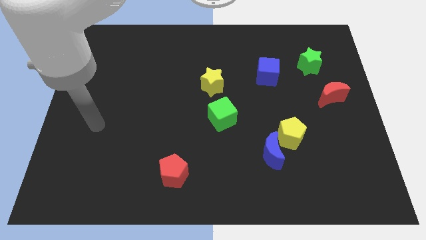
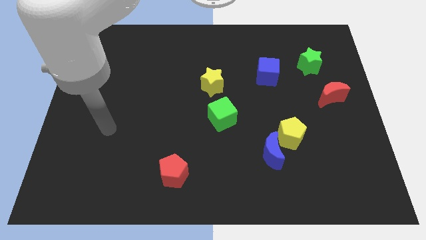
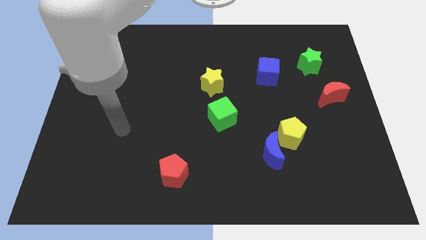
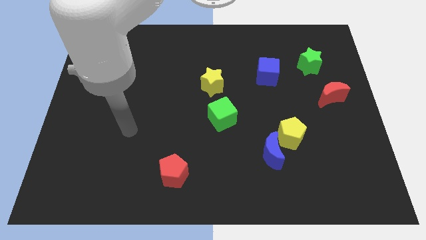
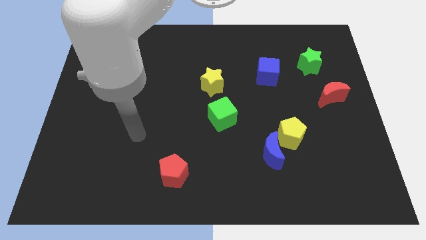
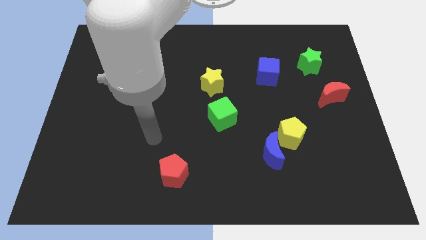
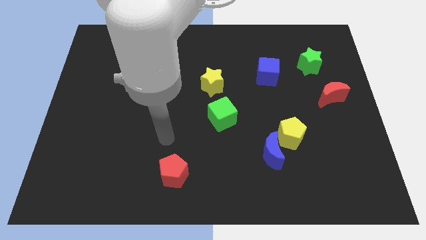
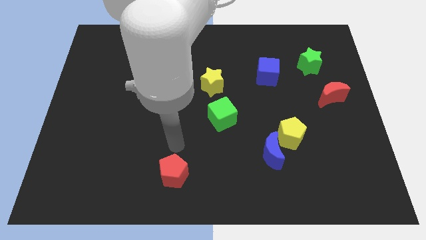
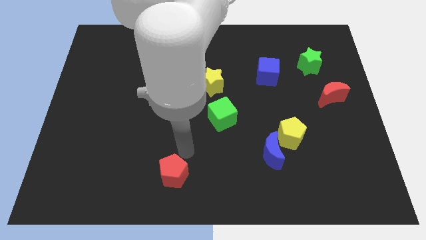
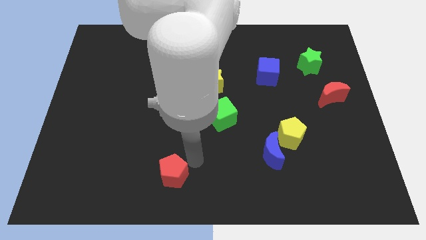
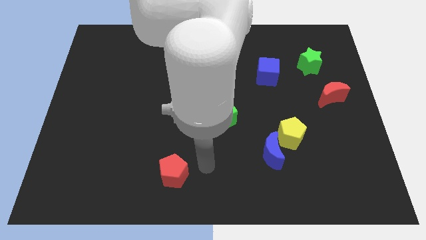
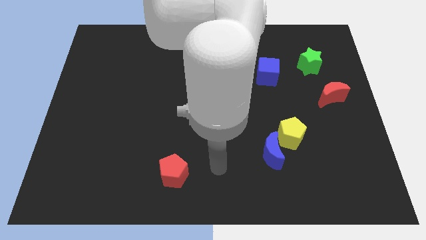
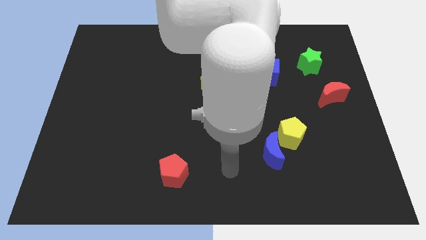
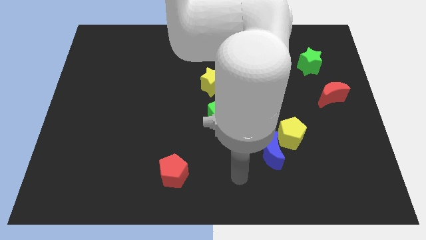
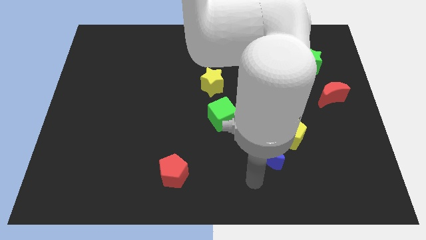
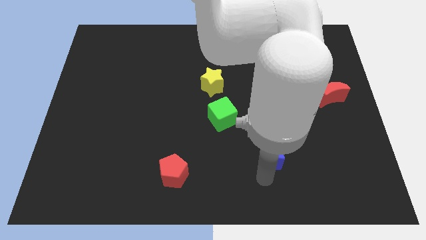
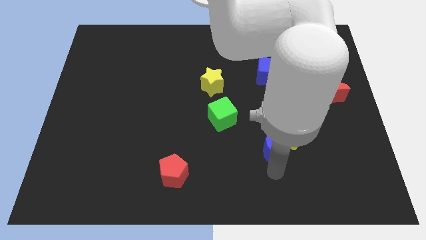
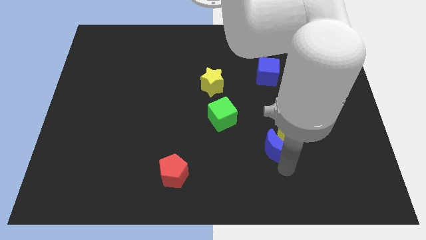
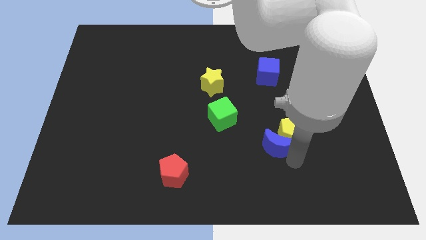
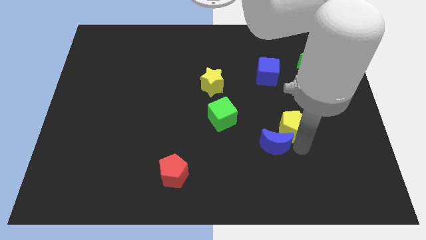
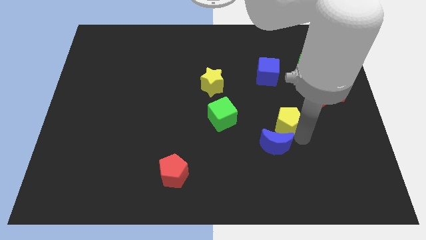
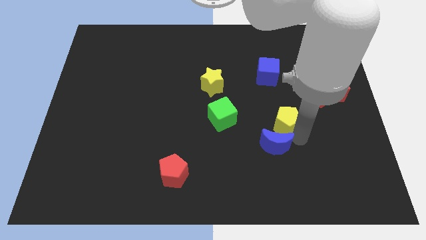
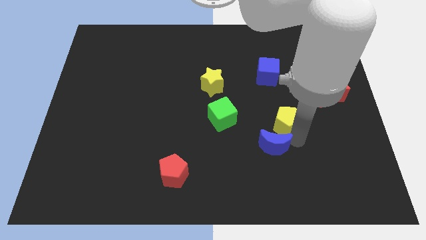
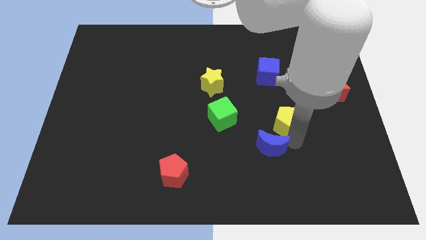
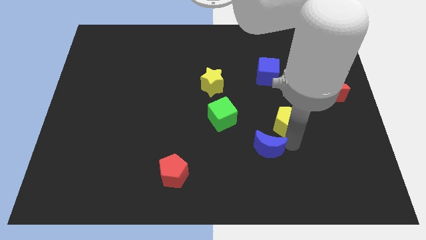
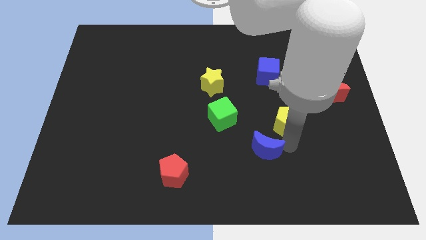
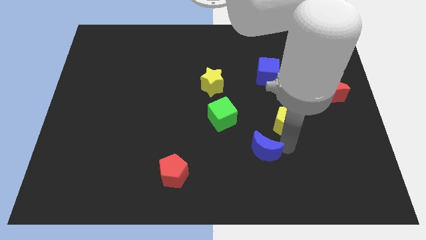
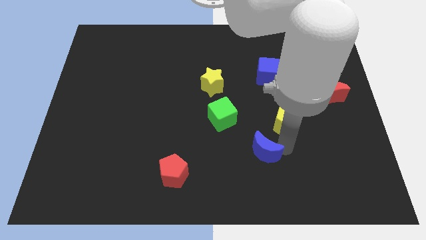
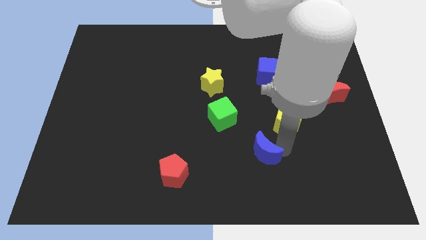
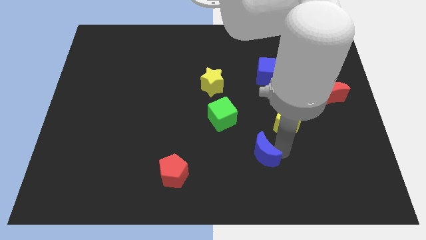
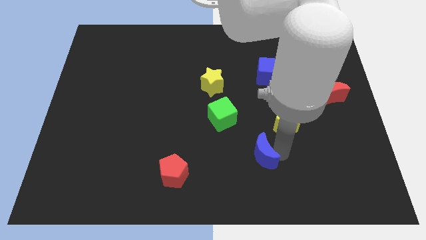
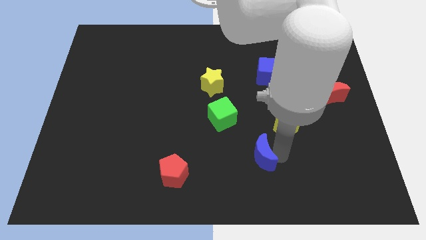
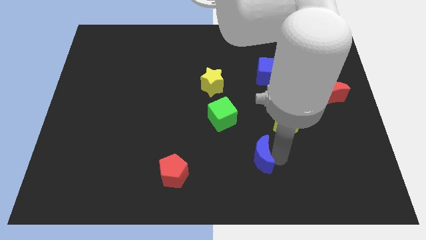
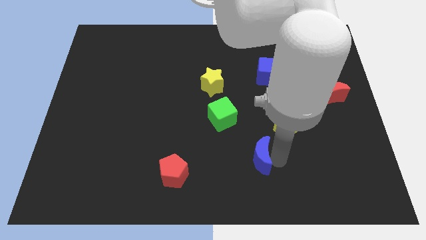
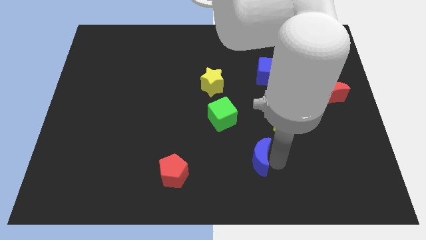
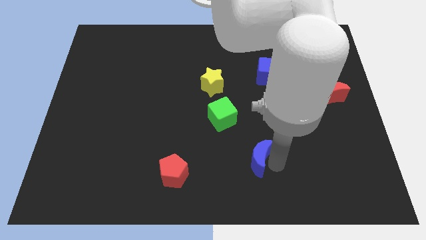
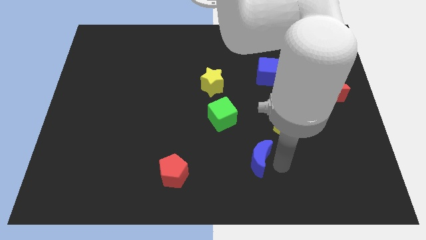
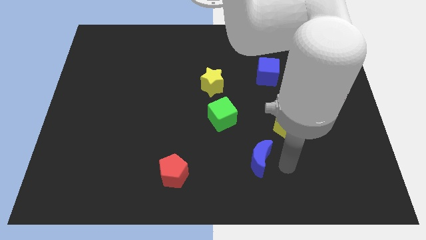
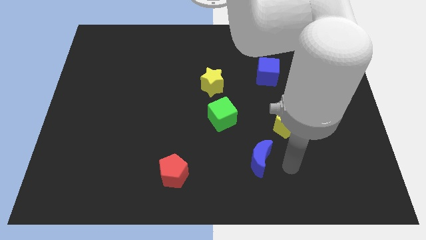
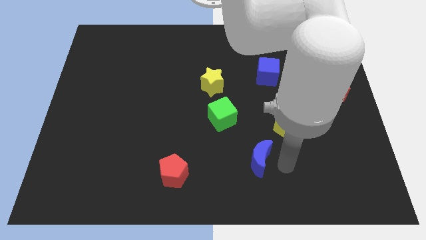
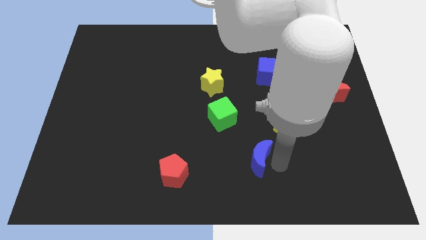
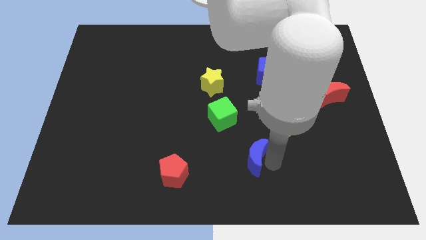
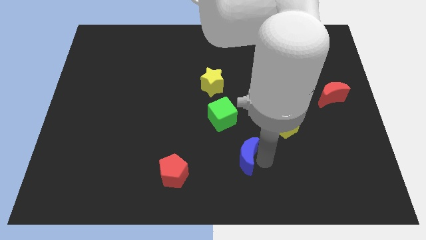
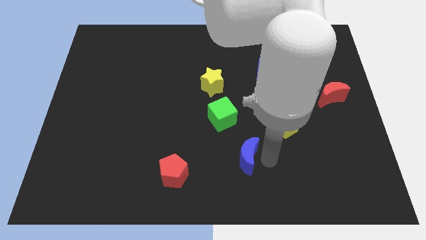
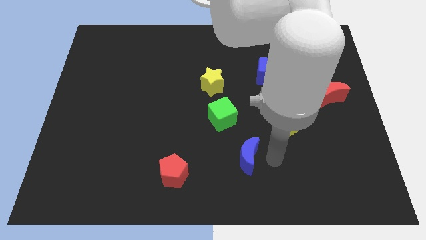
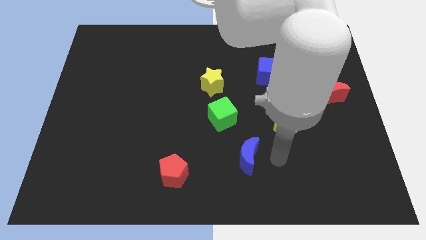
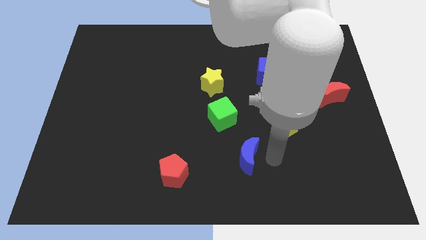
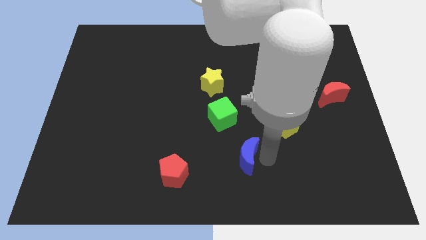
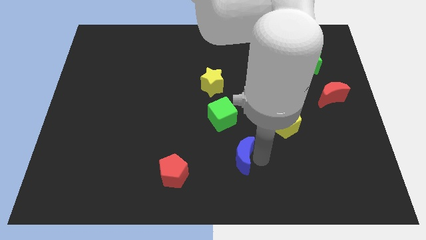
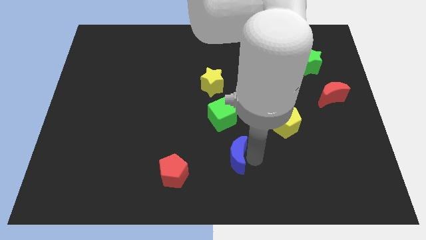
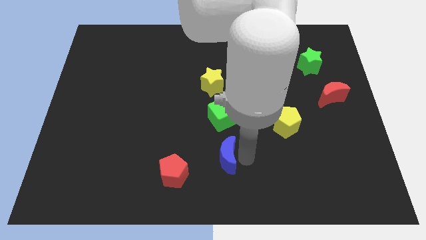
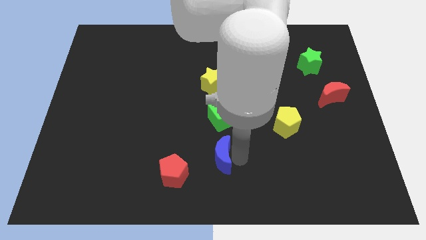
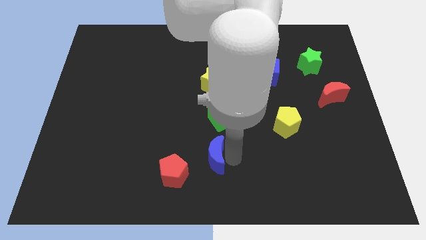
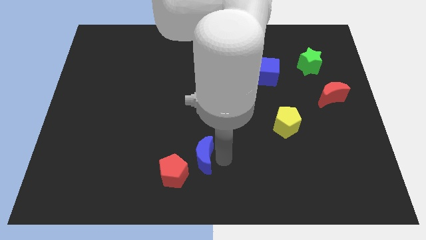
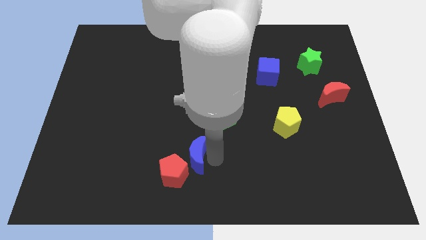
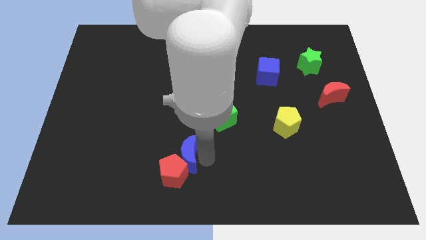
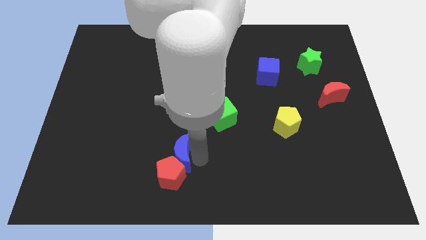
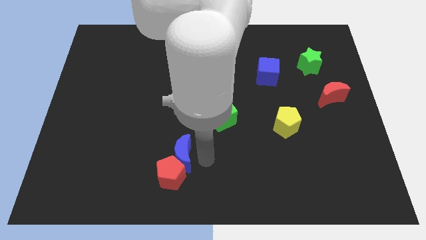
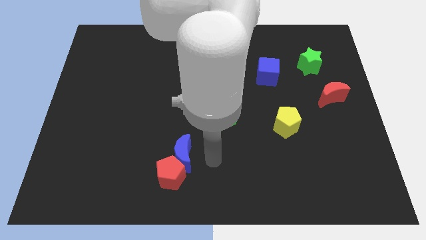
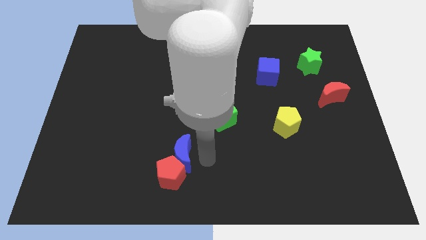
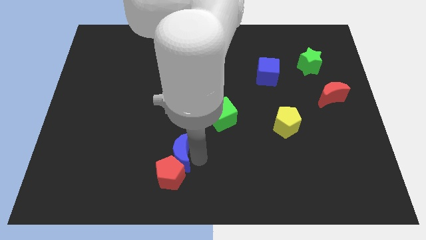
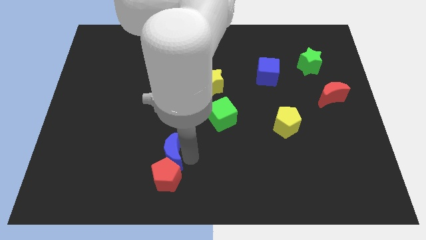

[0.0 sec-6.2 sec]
move the blue moon to the left

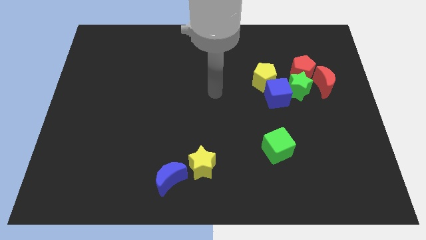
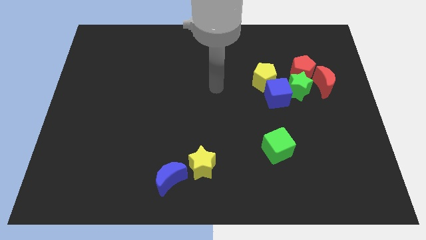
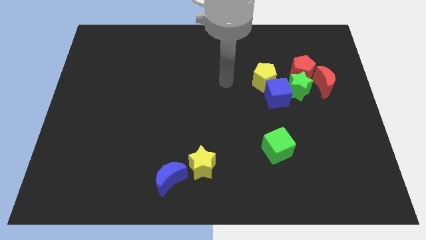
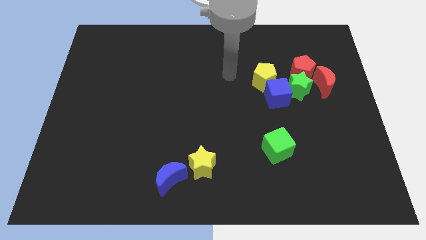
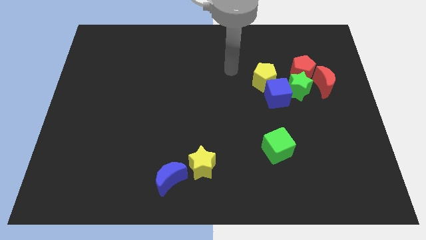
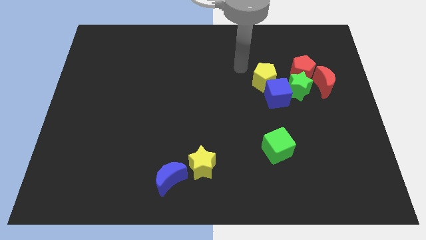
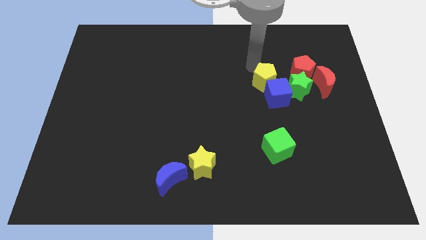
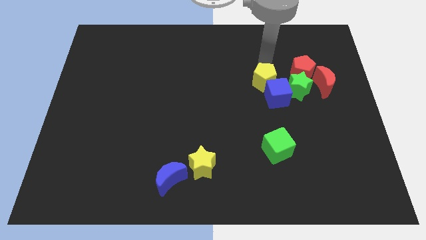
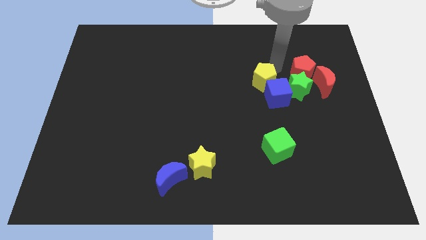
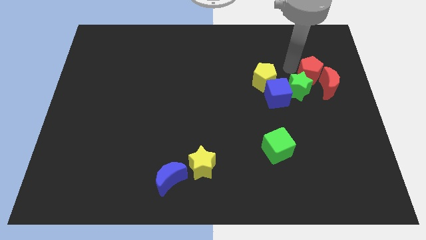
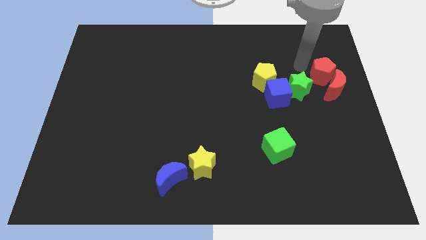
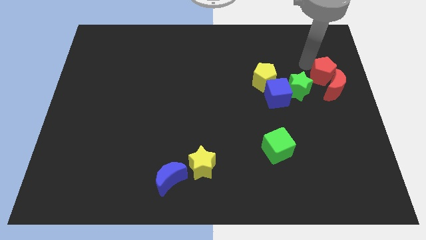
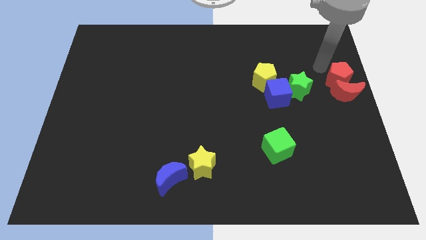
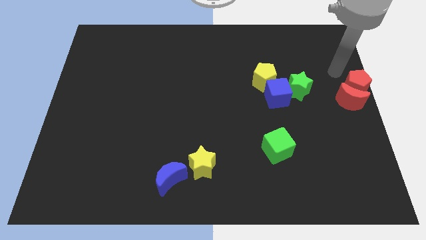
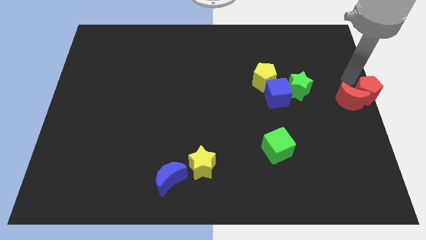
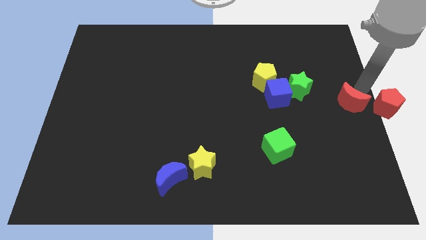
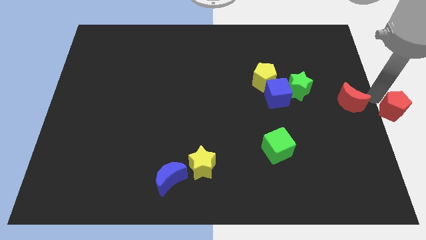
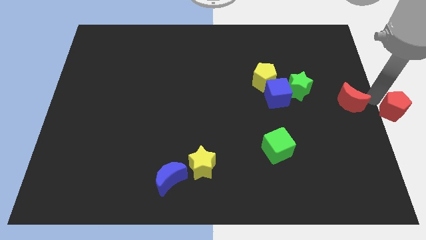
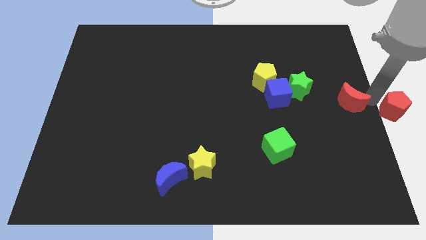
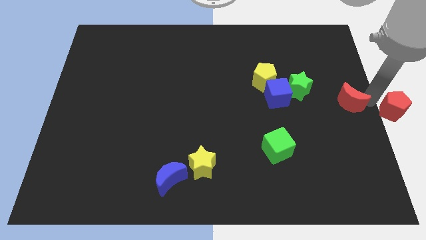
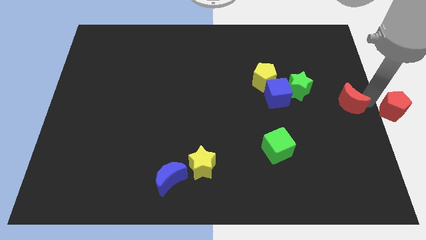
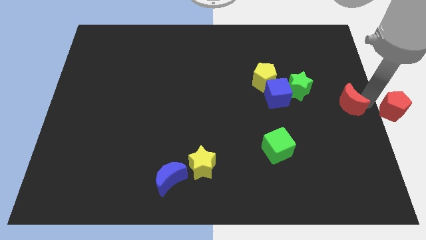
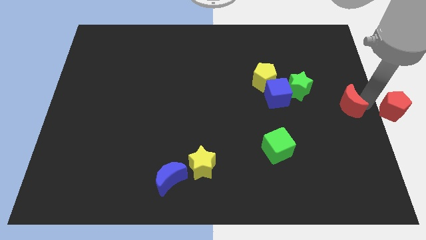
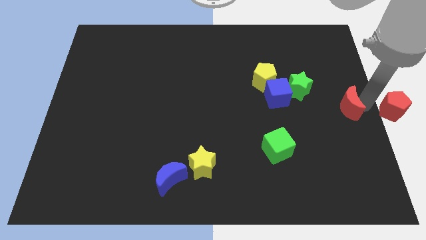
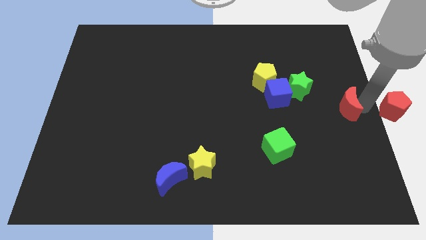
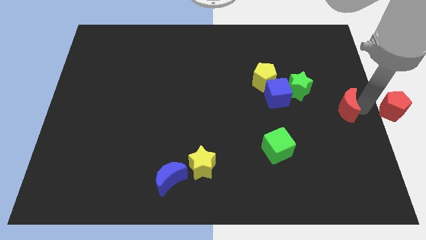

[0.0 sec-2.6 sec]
slightly push the red moon down
